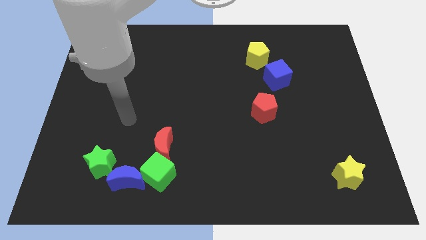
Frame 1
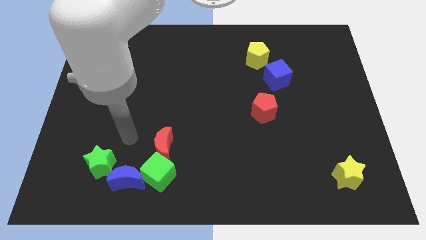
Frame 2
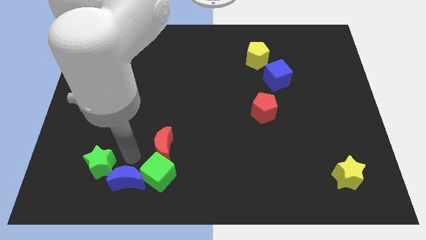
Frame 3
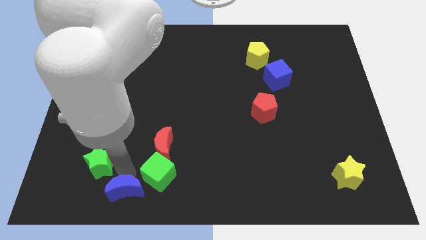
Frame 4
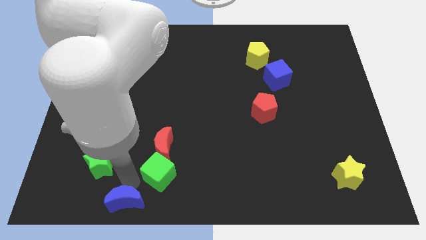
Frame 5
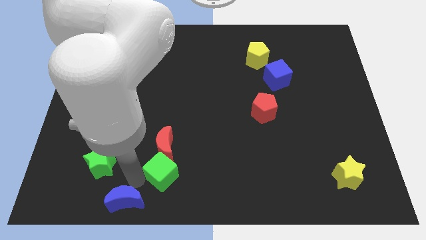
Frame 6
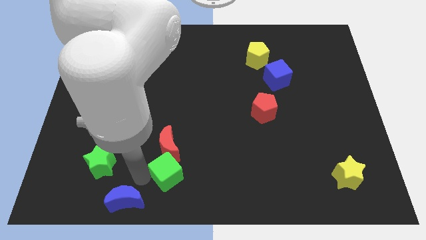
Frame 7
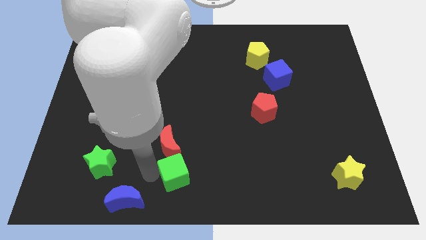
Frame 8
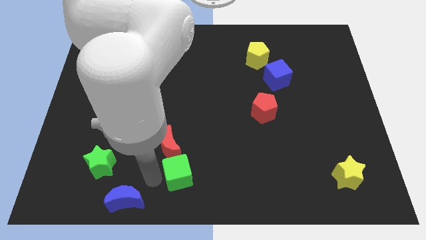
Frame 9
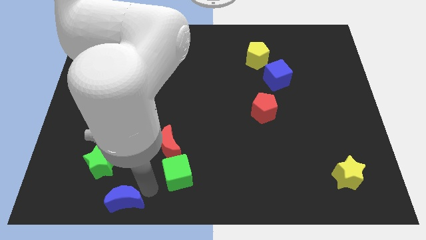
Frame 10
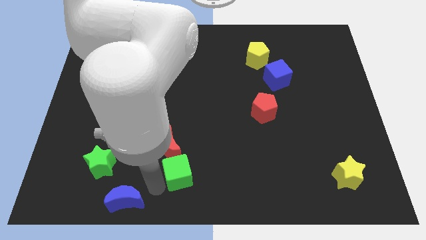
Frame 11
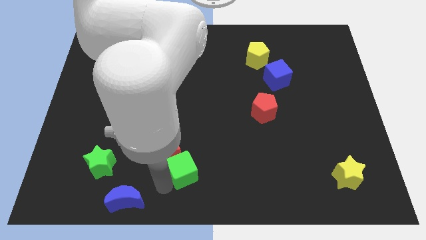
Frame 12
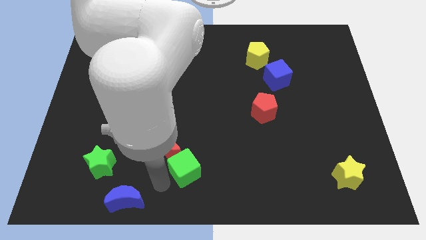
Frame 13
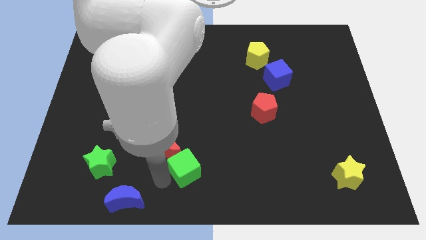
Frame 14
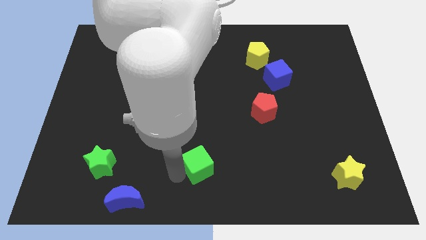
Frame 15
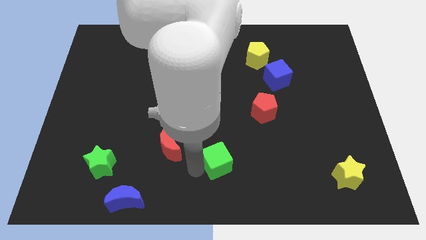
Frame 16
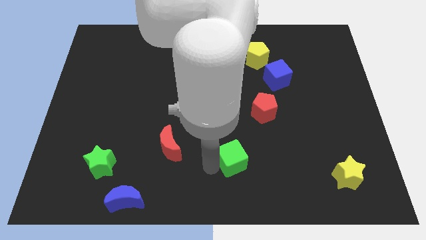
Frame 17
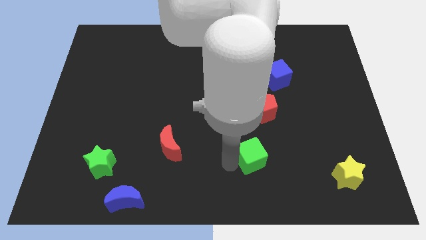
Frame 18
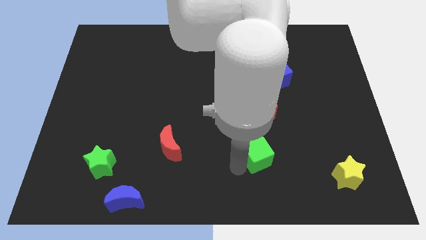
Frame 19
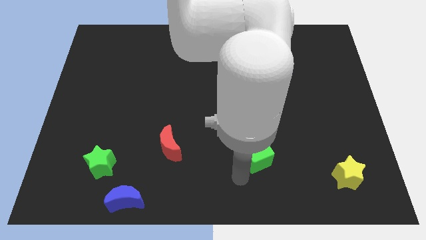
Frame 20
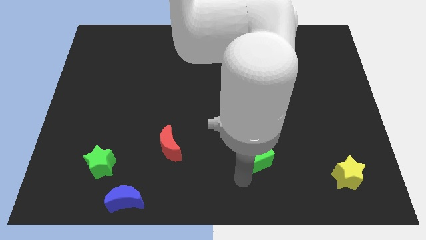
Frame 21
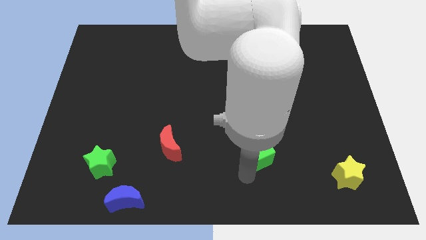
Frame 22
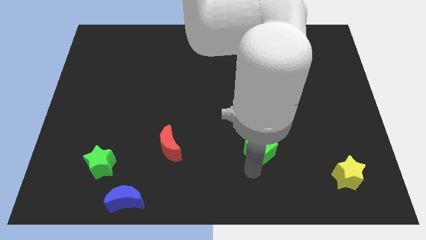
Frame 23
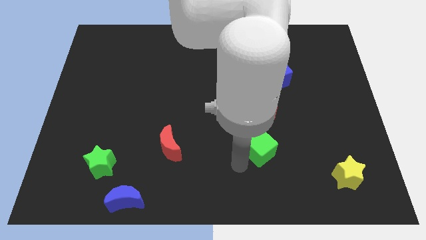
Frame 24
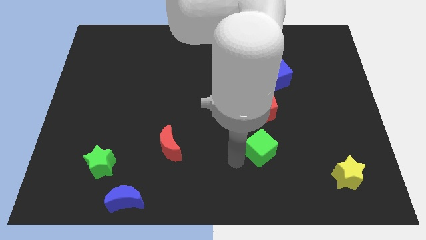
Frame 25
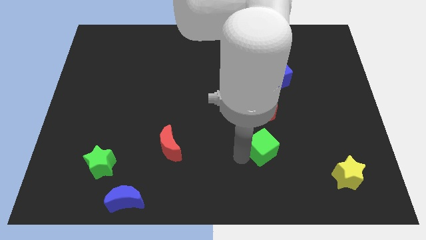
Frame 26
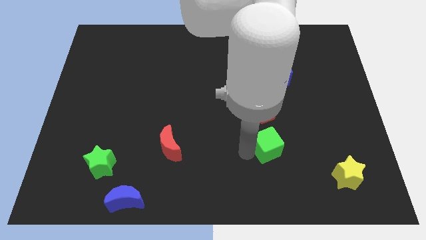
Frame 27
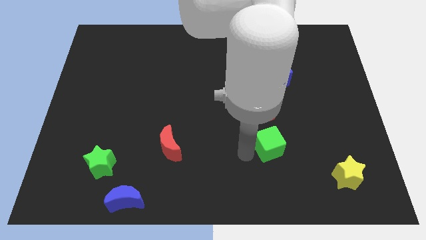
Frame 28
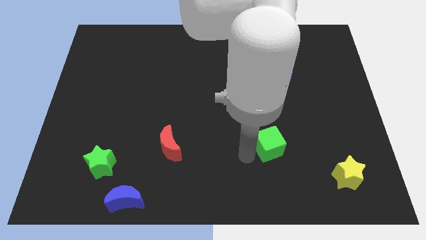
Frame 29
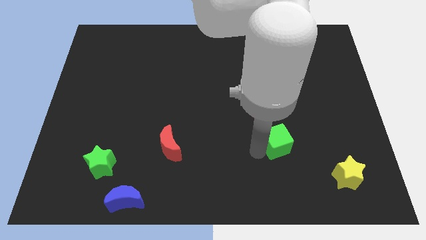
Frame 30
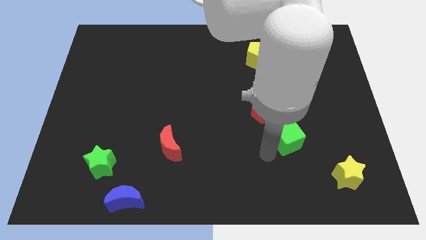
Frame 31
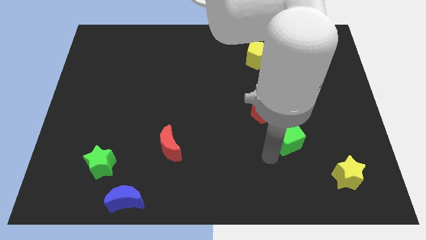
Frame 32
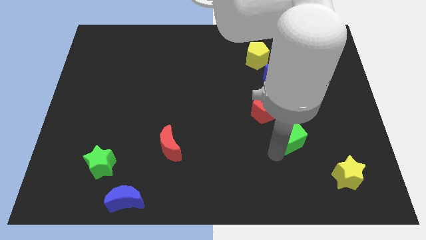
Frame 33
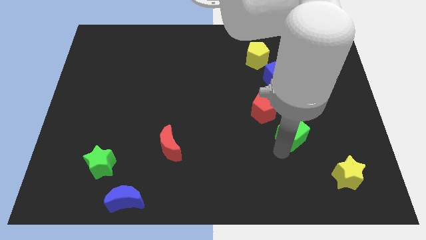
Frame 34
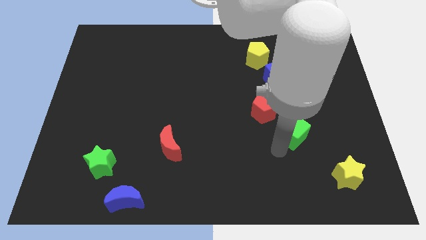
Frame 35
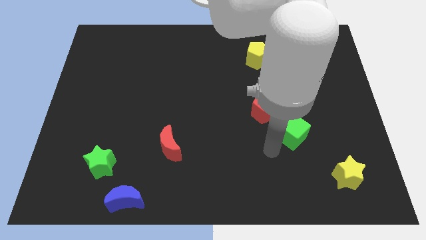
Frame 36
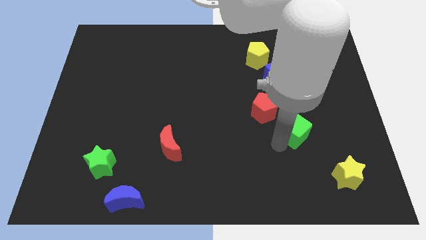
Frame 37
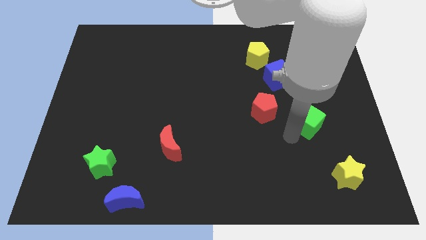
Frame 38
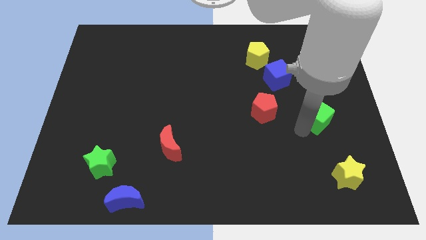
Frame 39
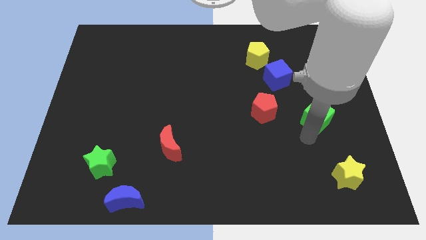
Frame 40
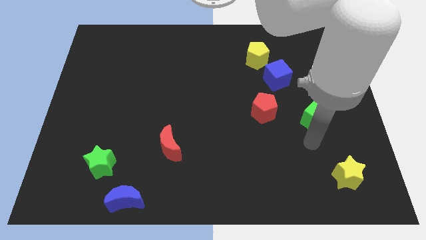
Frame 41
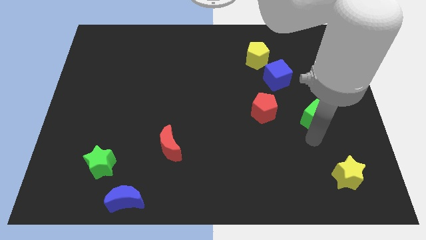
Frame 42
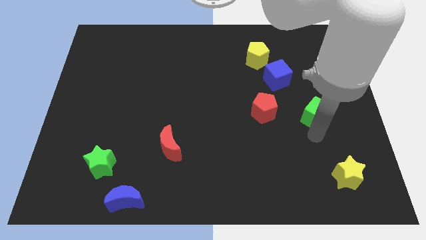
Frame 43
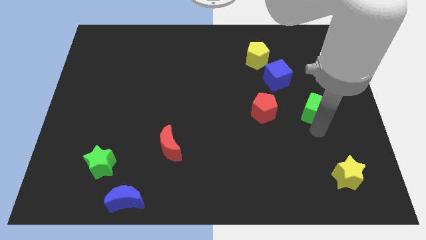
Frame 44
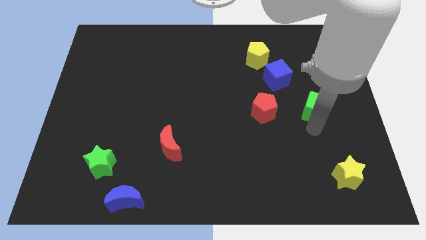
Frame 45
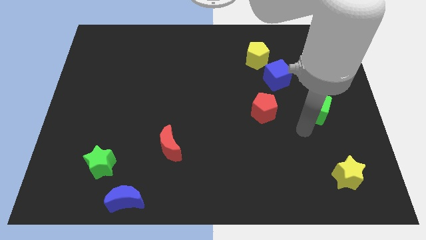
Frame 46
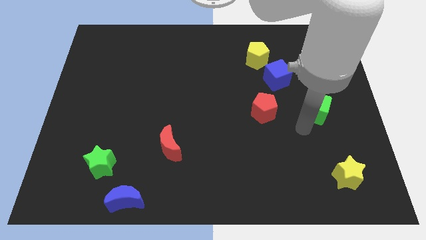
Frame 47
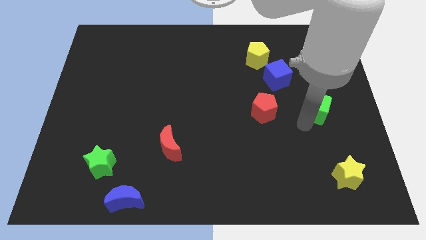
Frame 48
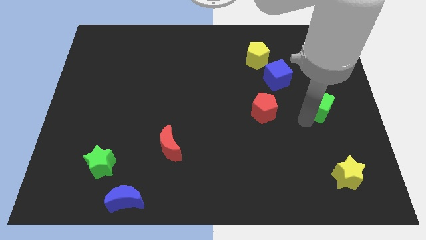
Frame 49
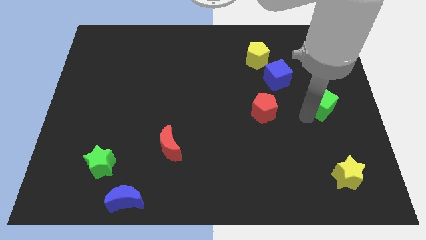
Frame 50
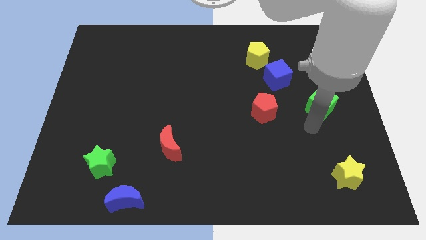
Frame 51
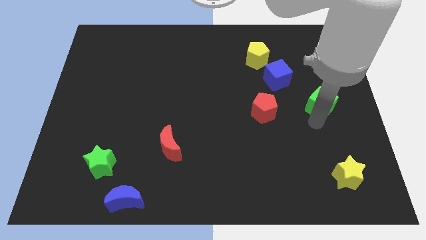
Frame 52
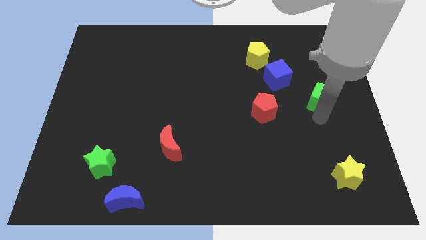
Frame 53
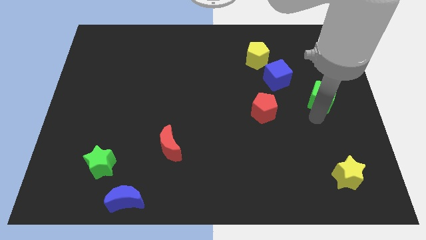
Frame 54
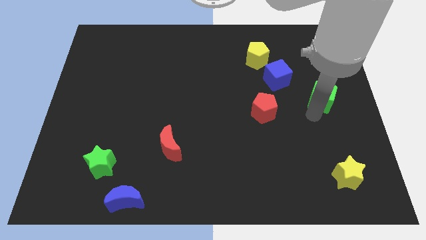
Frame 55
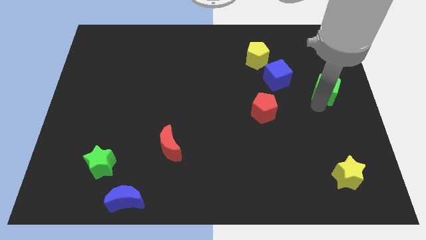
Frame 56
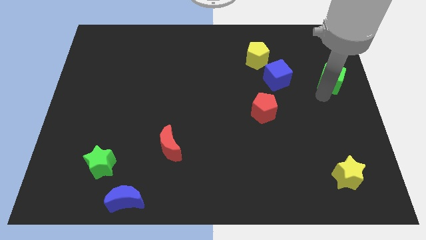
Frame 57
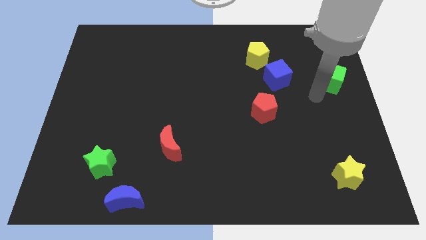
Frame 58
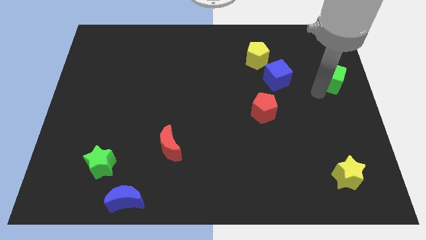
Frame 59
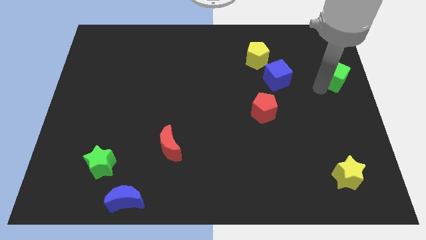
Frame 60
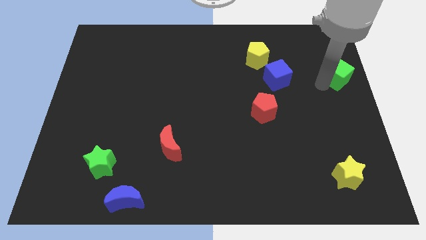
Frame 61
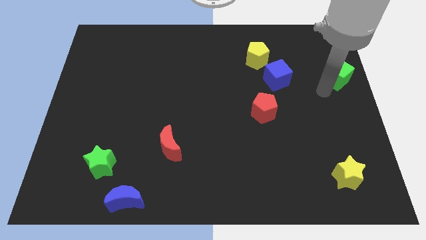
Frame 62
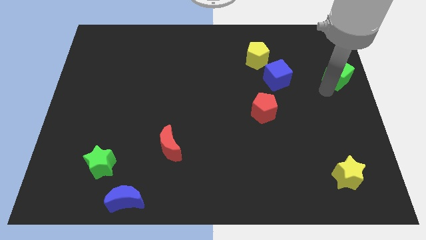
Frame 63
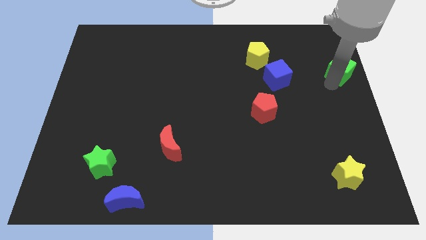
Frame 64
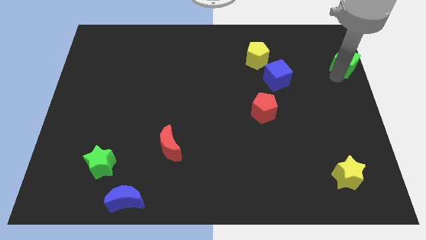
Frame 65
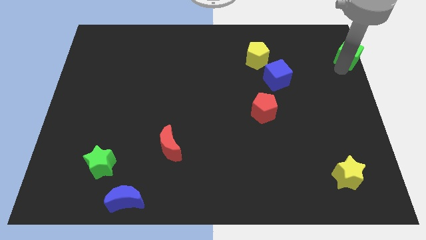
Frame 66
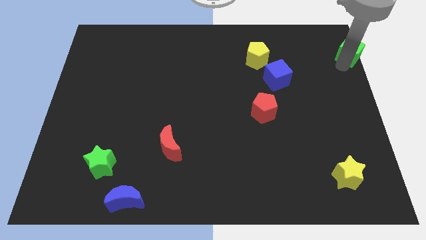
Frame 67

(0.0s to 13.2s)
slide the green cube to the top right
